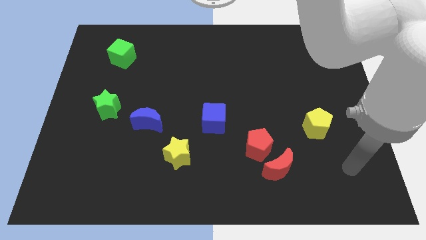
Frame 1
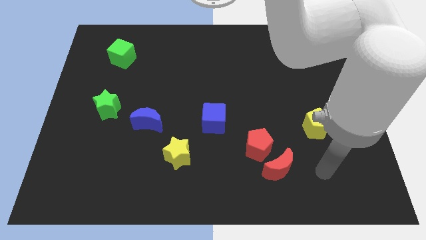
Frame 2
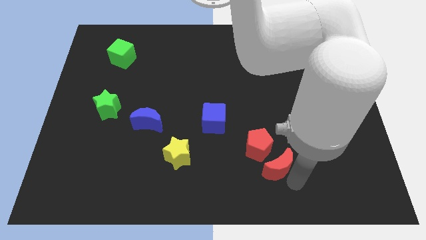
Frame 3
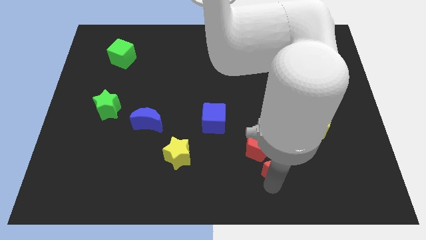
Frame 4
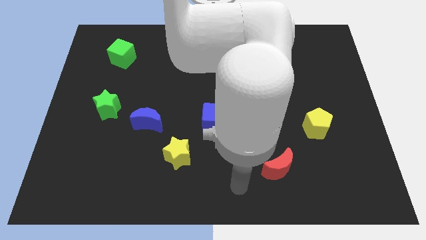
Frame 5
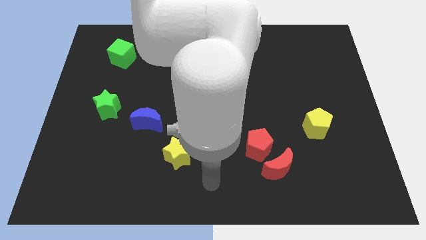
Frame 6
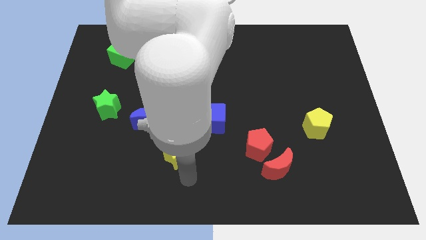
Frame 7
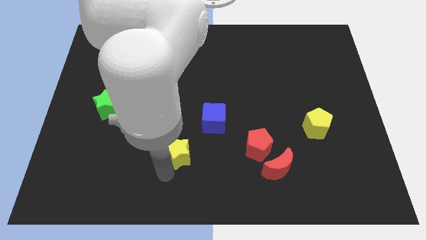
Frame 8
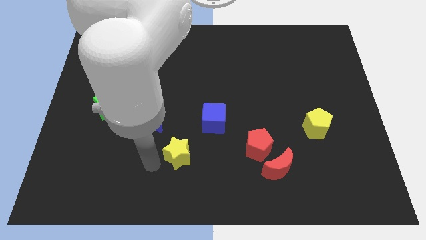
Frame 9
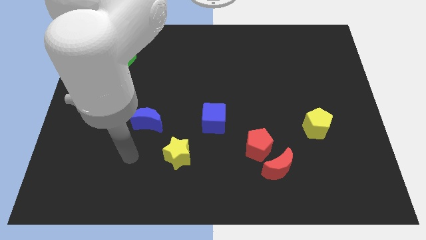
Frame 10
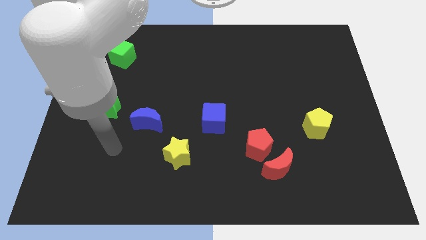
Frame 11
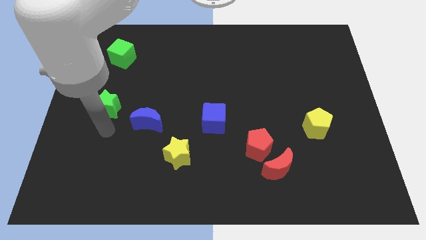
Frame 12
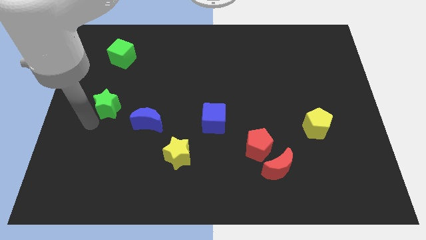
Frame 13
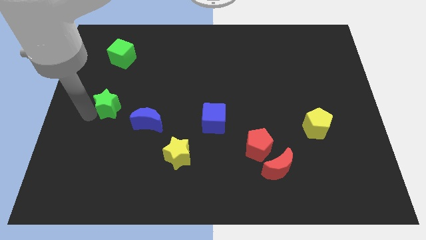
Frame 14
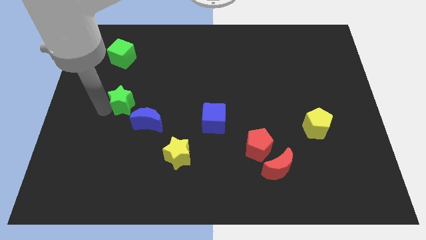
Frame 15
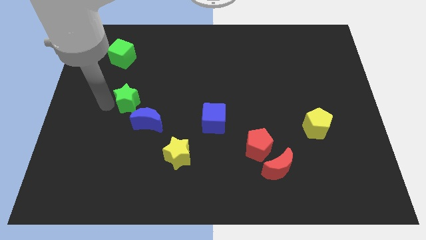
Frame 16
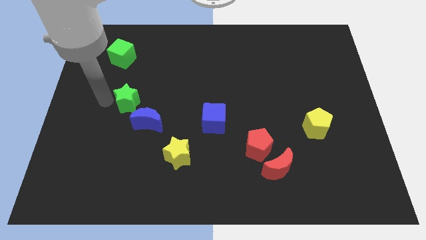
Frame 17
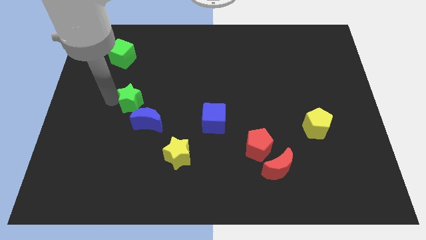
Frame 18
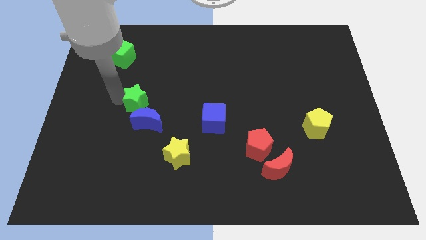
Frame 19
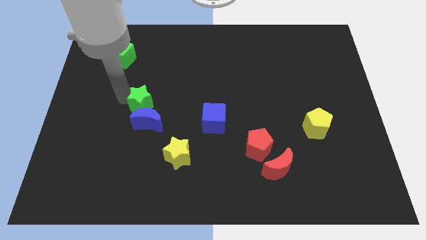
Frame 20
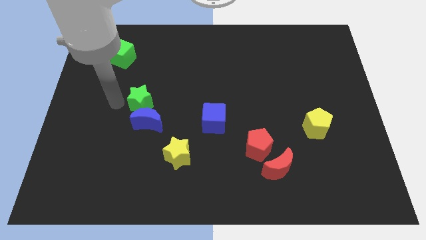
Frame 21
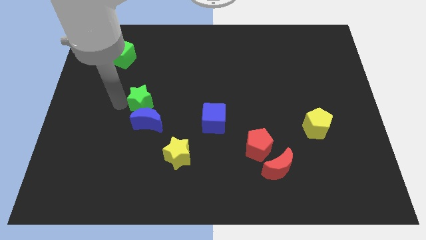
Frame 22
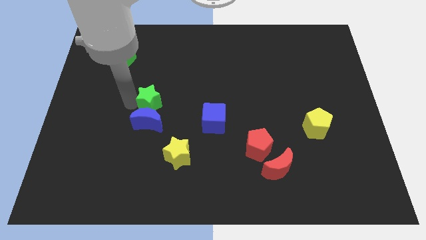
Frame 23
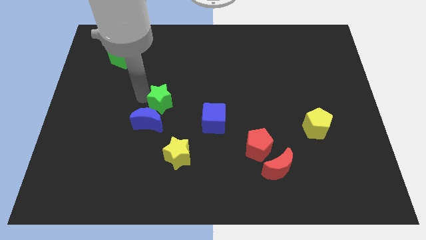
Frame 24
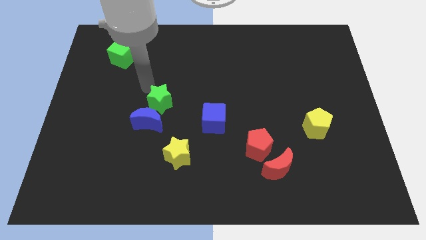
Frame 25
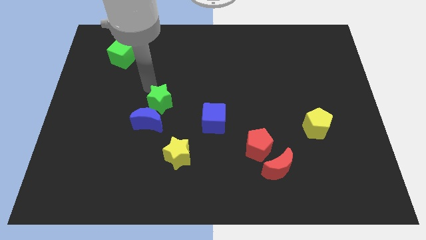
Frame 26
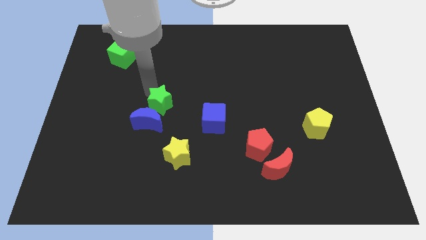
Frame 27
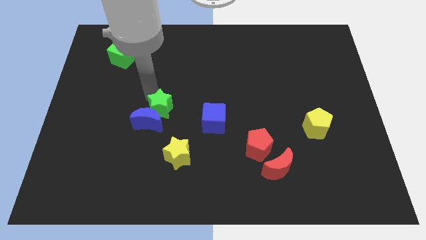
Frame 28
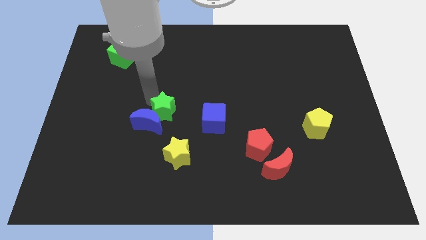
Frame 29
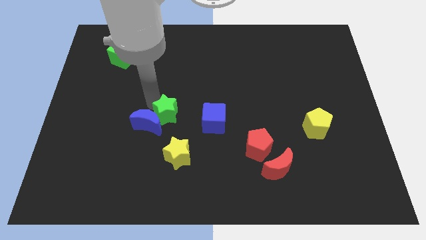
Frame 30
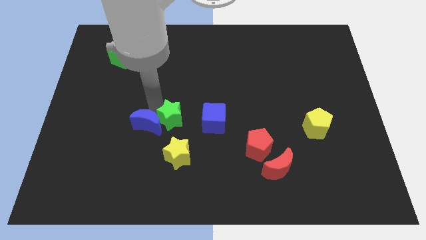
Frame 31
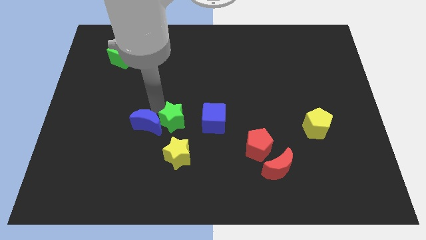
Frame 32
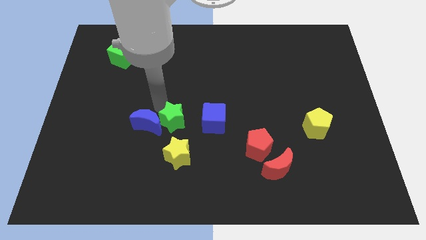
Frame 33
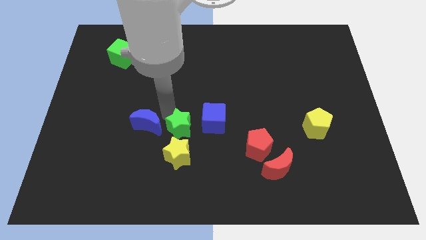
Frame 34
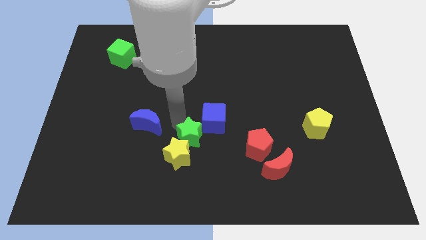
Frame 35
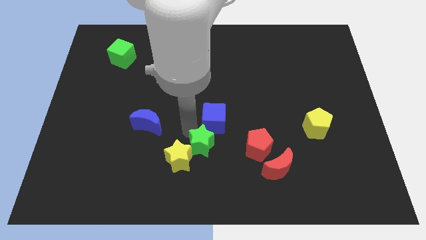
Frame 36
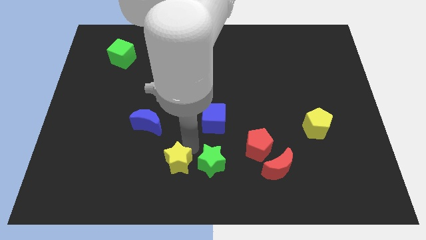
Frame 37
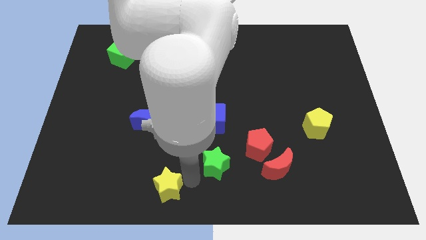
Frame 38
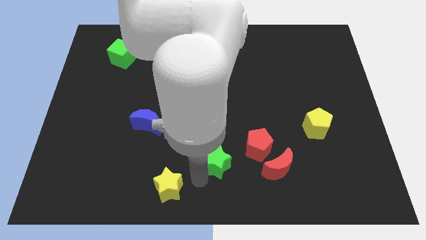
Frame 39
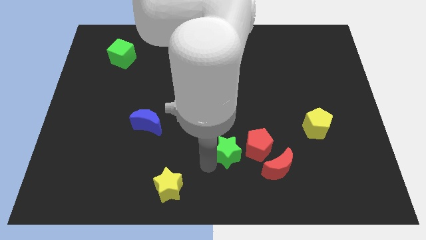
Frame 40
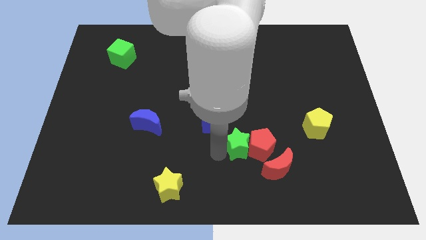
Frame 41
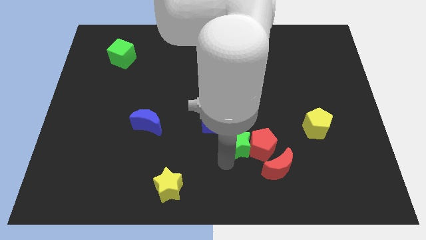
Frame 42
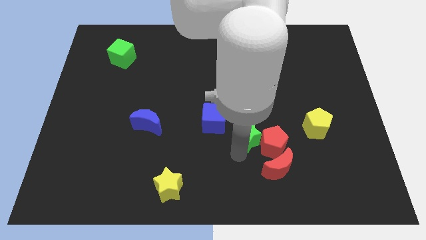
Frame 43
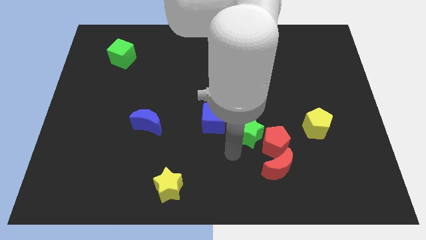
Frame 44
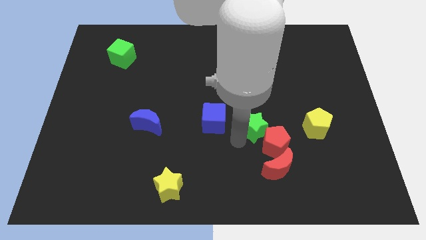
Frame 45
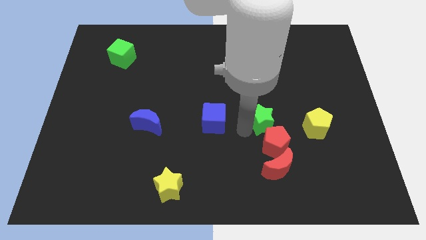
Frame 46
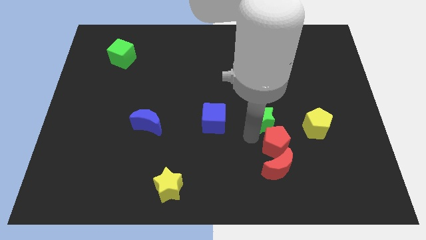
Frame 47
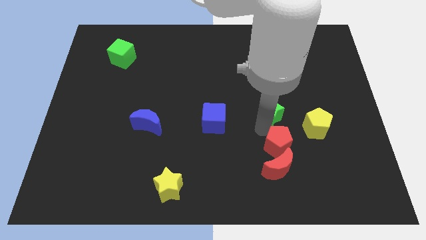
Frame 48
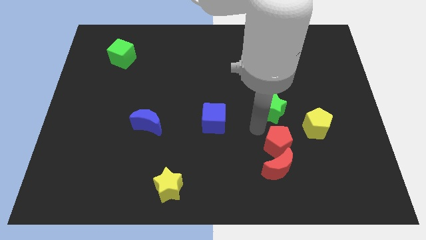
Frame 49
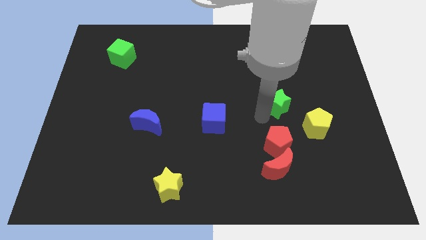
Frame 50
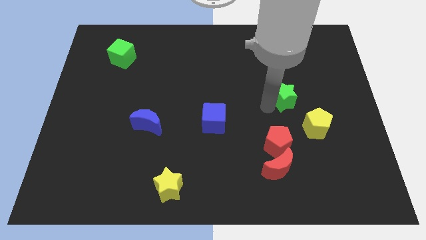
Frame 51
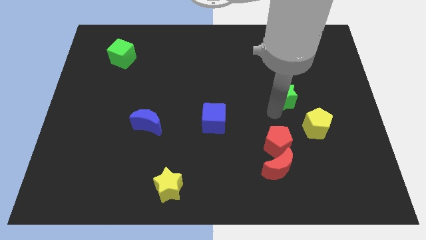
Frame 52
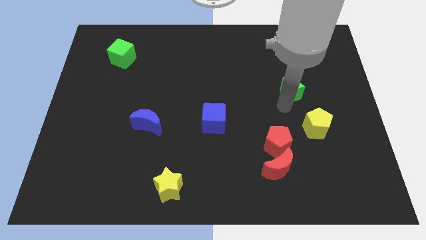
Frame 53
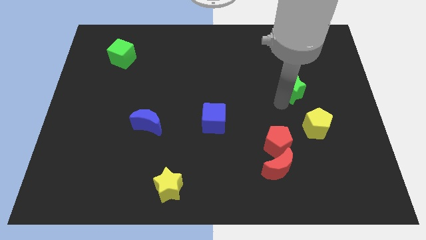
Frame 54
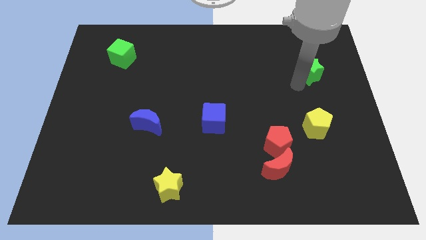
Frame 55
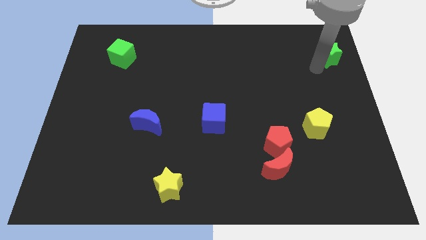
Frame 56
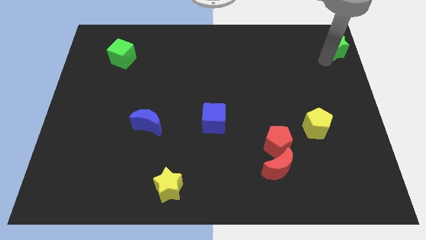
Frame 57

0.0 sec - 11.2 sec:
put the green star to the upper right corner
